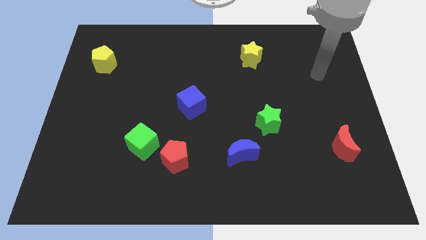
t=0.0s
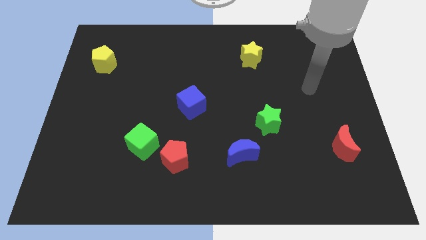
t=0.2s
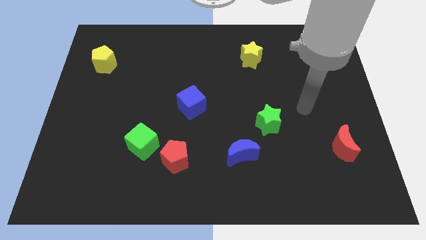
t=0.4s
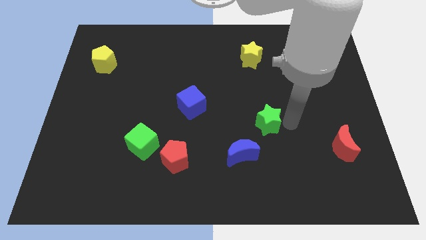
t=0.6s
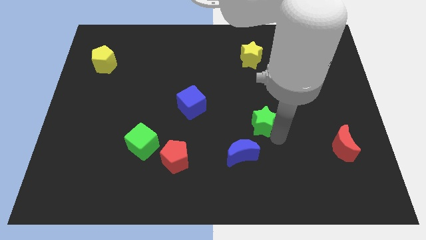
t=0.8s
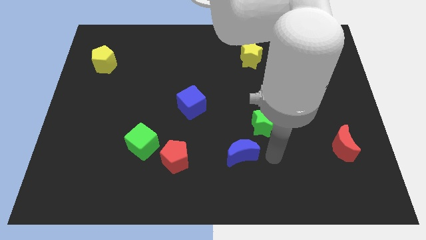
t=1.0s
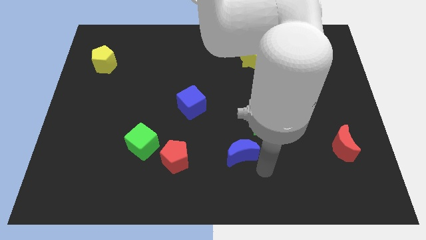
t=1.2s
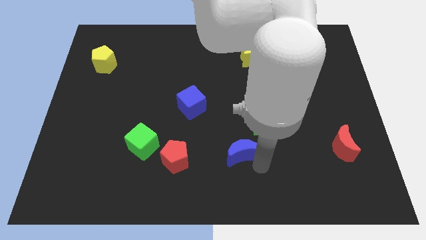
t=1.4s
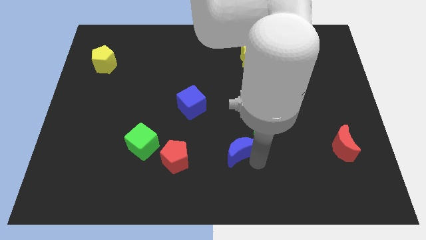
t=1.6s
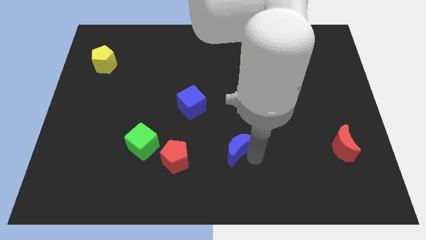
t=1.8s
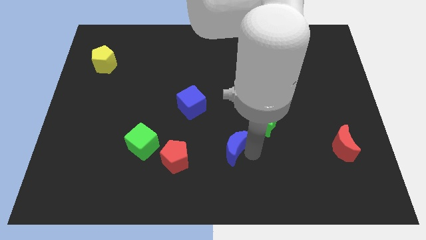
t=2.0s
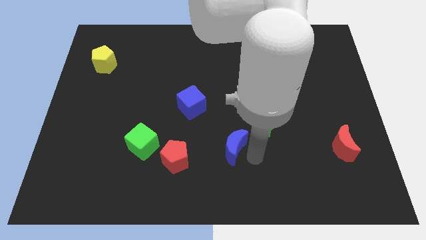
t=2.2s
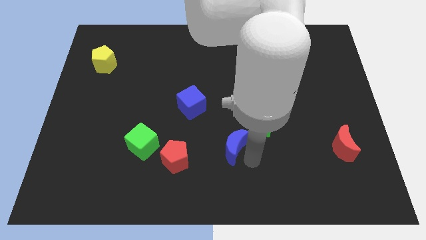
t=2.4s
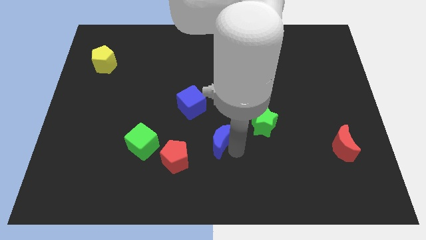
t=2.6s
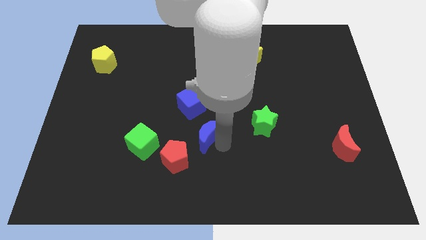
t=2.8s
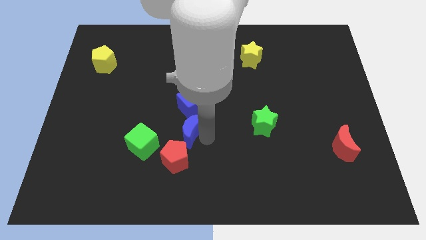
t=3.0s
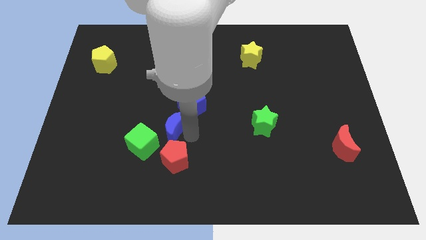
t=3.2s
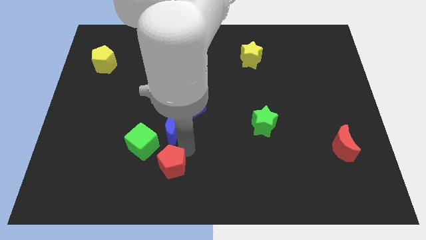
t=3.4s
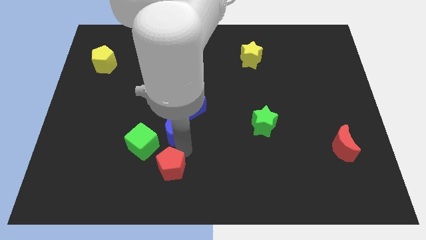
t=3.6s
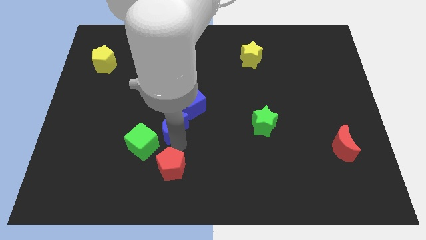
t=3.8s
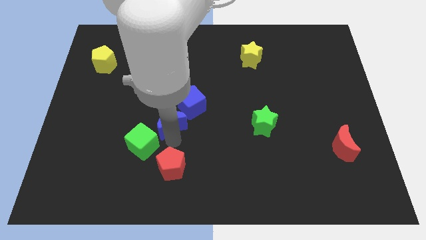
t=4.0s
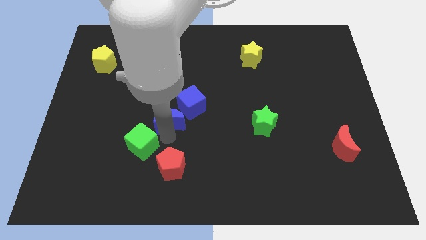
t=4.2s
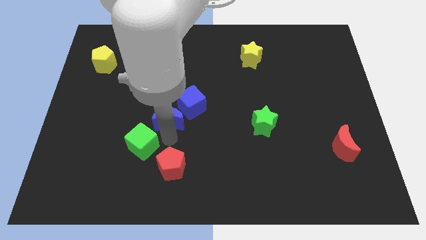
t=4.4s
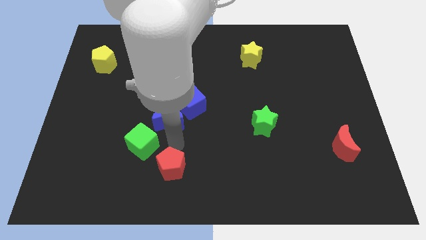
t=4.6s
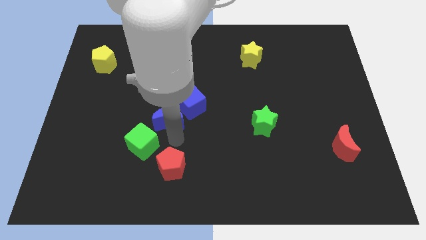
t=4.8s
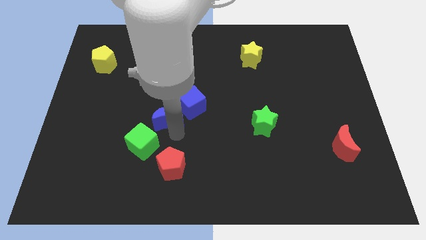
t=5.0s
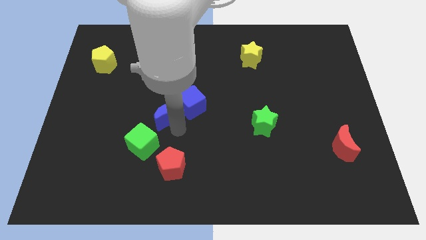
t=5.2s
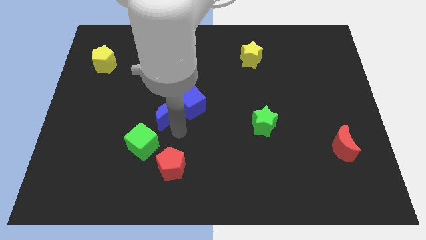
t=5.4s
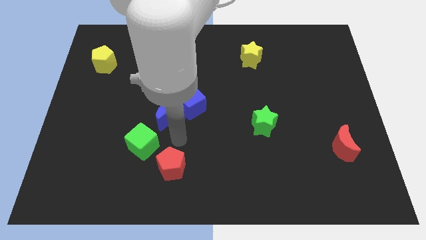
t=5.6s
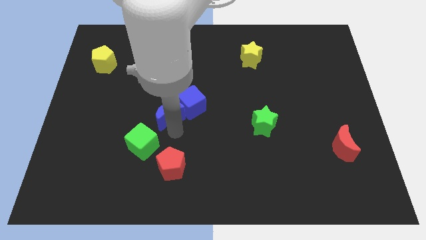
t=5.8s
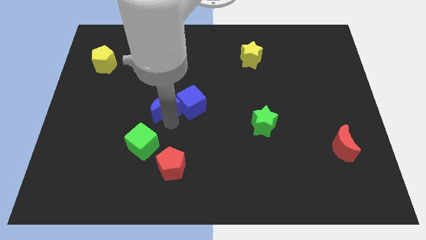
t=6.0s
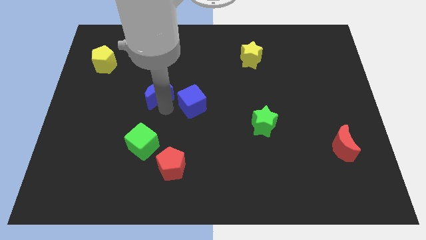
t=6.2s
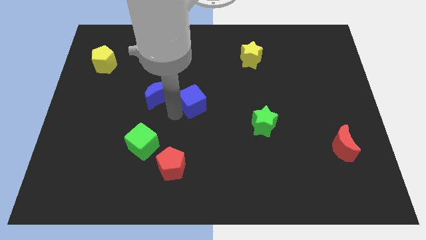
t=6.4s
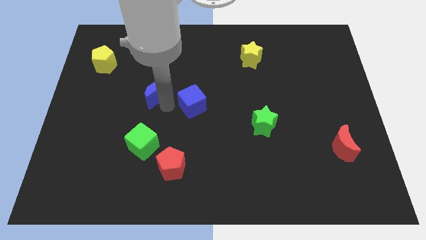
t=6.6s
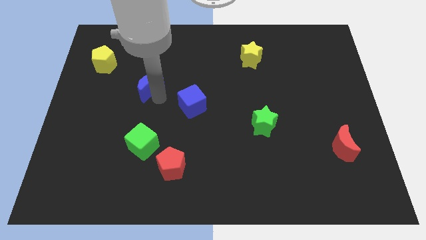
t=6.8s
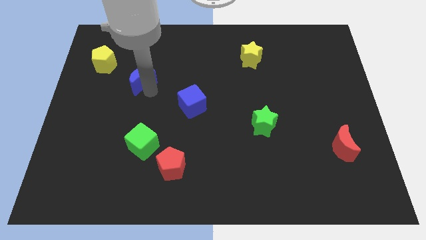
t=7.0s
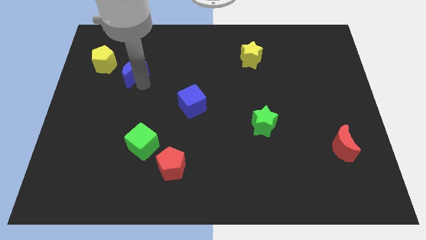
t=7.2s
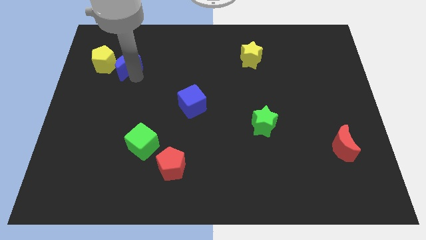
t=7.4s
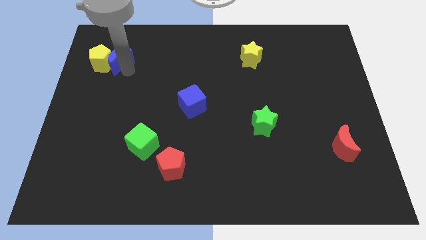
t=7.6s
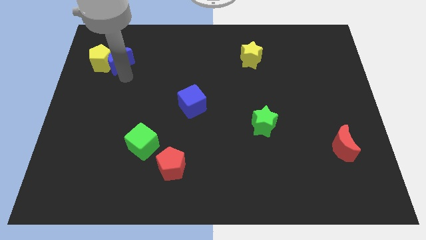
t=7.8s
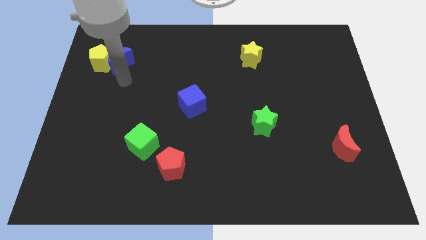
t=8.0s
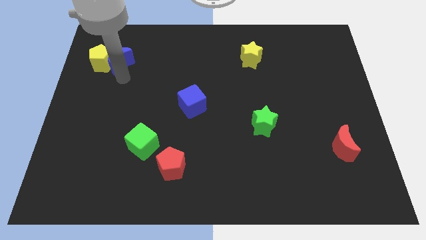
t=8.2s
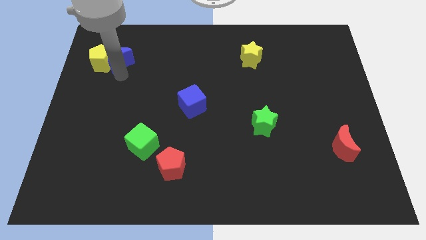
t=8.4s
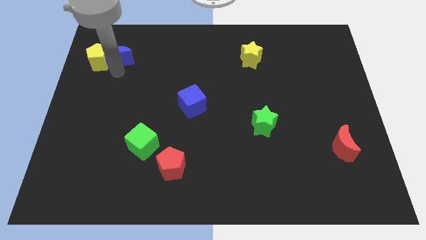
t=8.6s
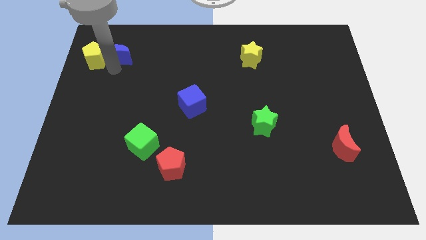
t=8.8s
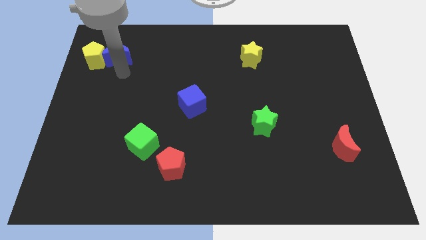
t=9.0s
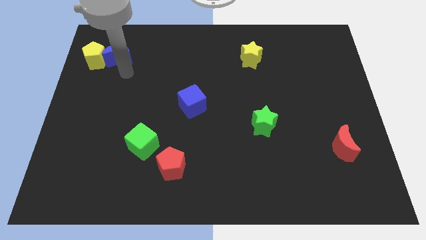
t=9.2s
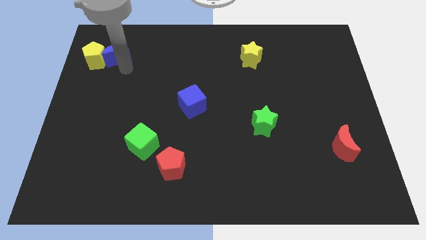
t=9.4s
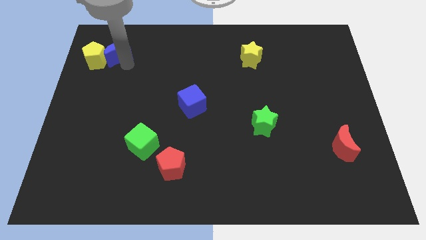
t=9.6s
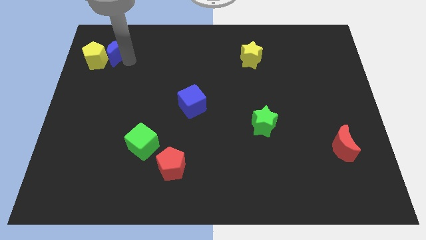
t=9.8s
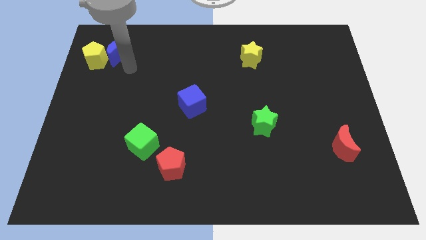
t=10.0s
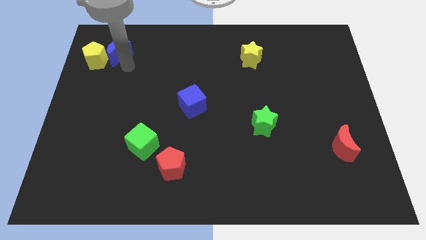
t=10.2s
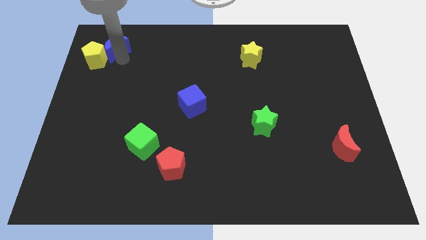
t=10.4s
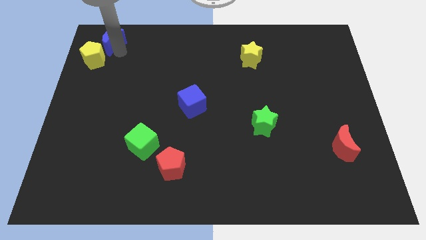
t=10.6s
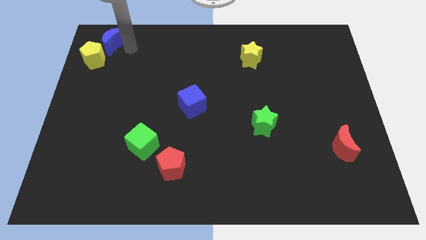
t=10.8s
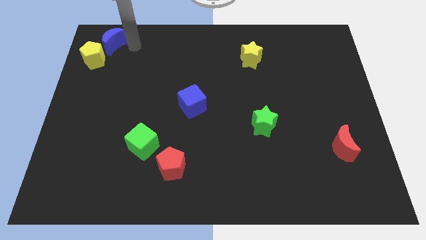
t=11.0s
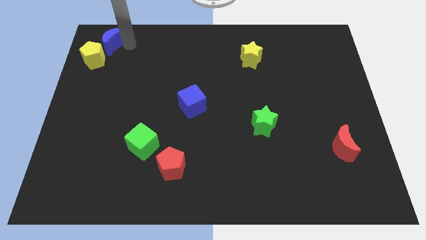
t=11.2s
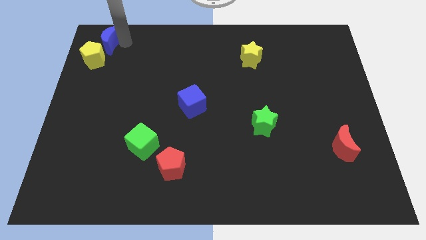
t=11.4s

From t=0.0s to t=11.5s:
move the blue moon to the top left corner
